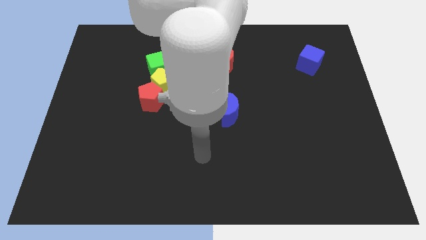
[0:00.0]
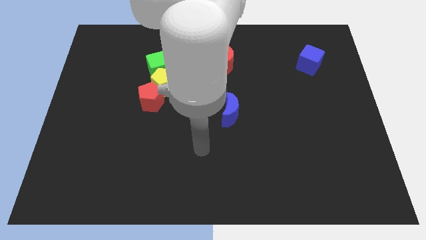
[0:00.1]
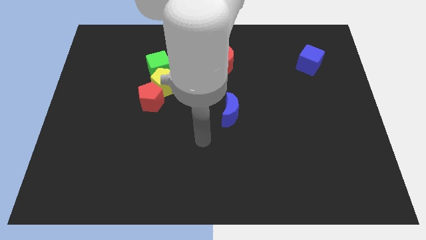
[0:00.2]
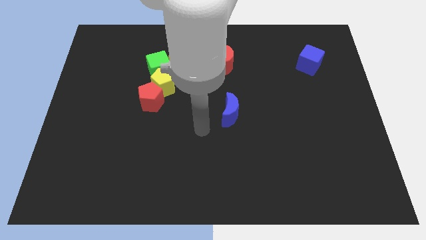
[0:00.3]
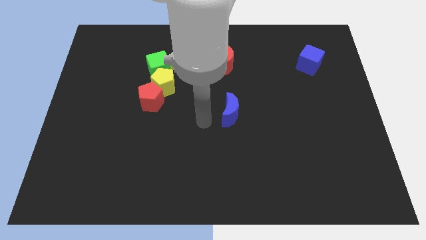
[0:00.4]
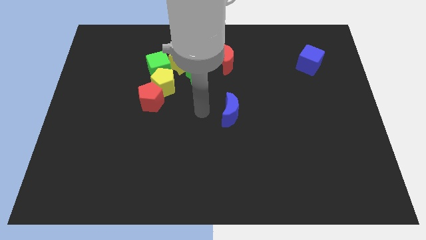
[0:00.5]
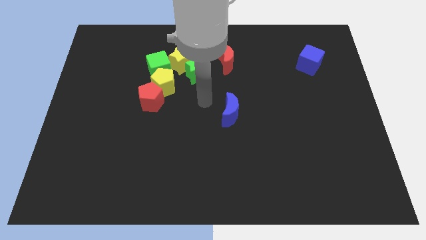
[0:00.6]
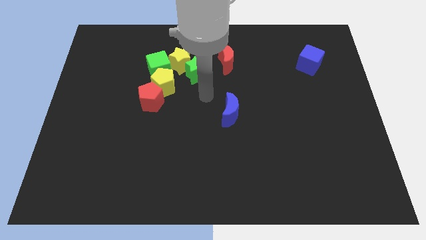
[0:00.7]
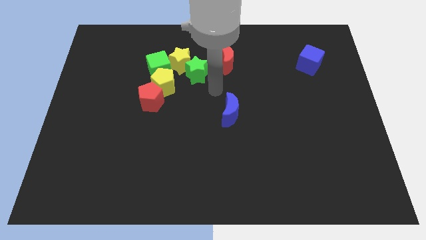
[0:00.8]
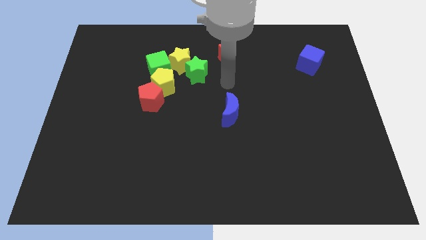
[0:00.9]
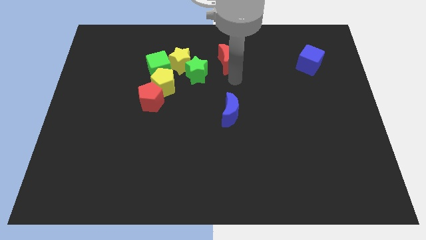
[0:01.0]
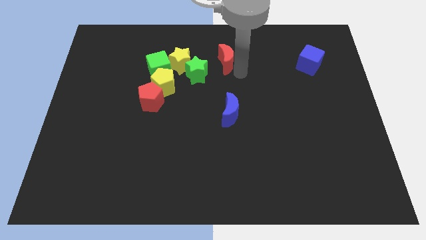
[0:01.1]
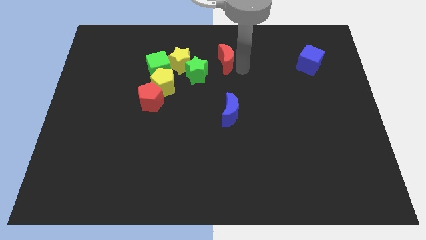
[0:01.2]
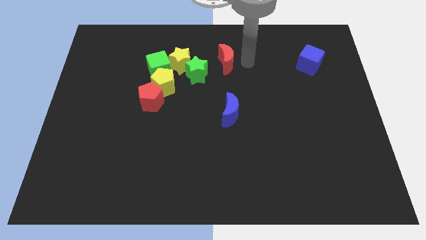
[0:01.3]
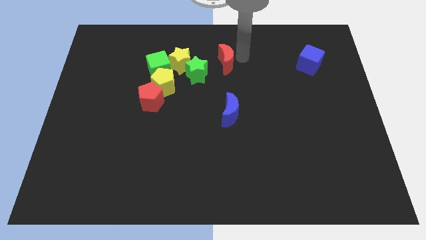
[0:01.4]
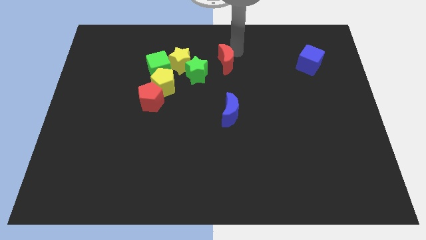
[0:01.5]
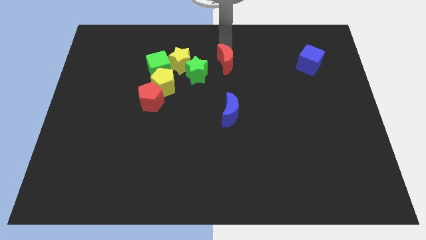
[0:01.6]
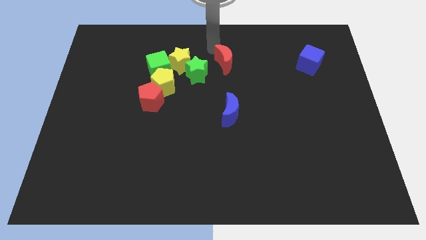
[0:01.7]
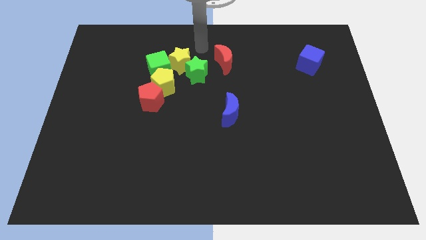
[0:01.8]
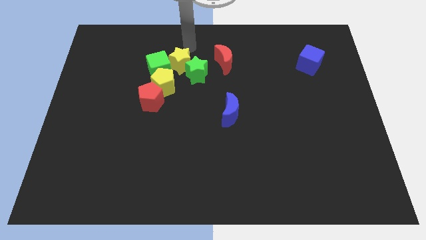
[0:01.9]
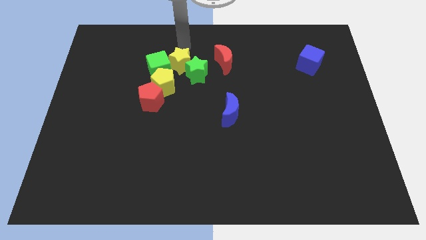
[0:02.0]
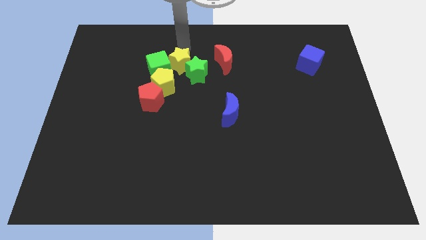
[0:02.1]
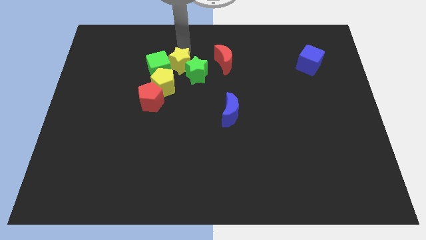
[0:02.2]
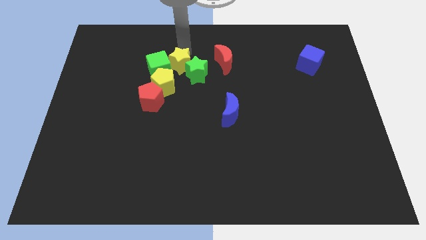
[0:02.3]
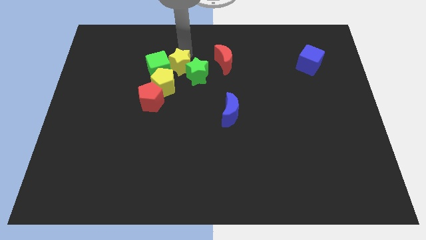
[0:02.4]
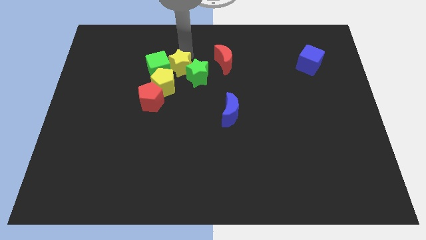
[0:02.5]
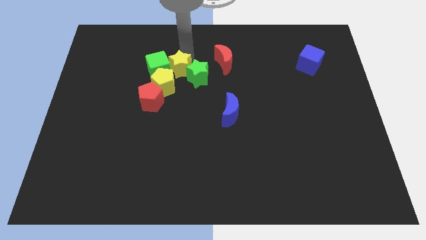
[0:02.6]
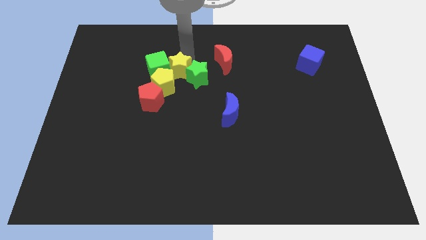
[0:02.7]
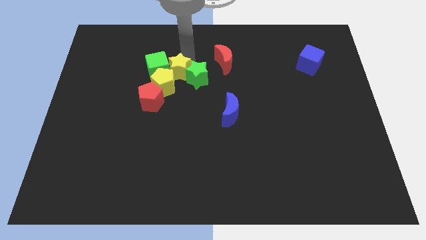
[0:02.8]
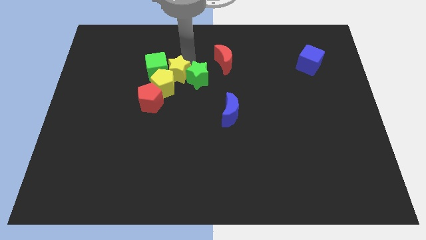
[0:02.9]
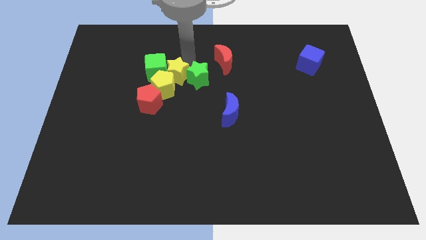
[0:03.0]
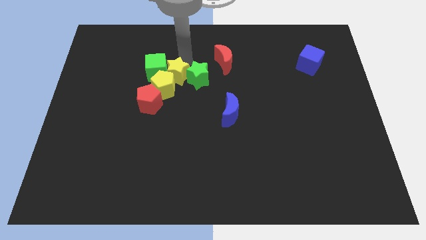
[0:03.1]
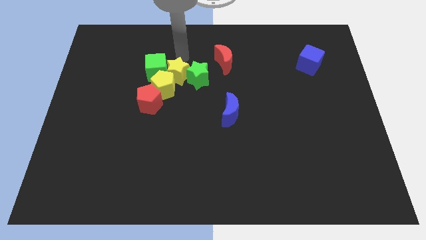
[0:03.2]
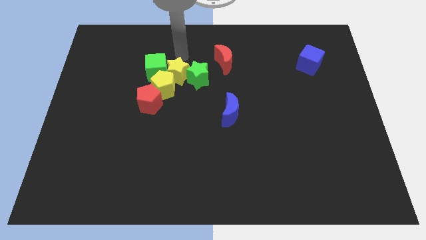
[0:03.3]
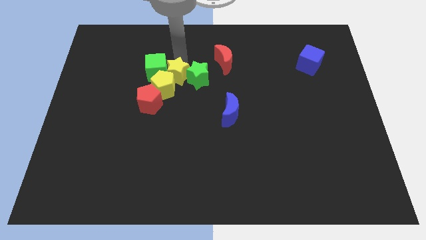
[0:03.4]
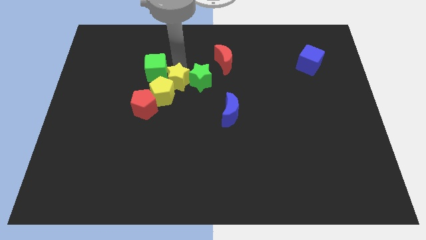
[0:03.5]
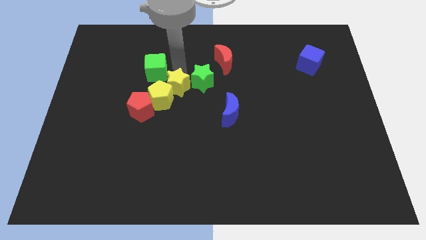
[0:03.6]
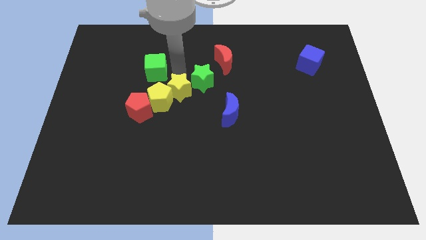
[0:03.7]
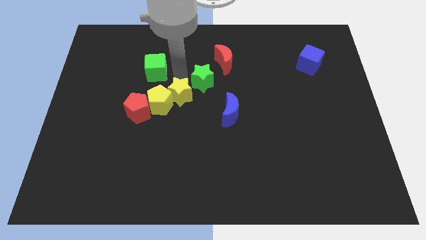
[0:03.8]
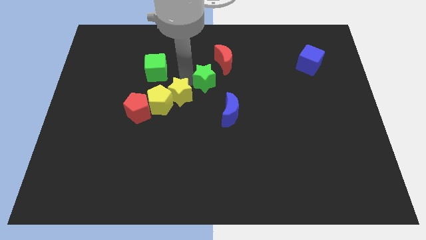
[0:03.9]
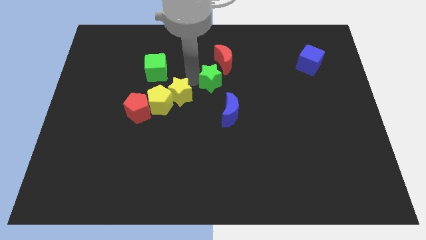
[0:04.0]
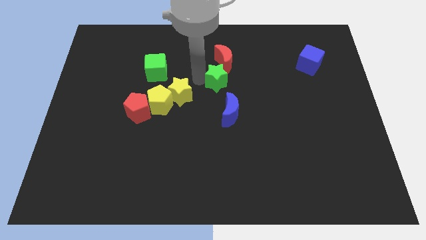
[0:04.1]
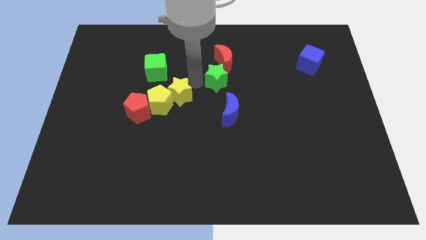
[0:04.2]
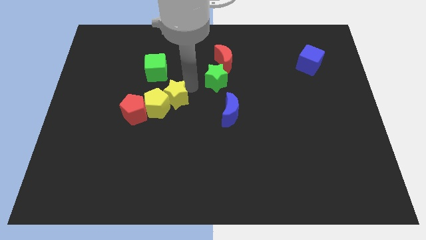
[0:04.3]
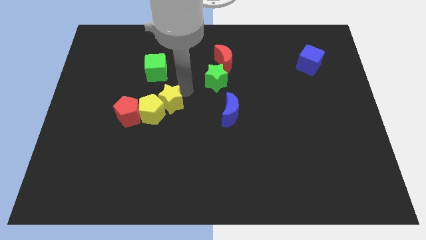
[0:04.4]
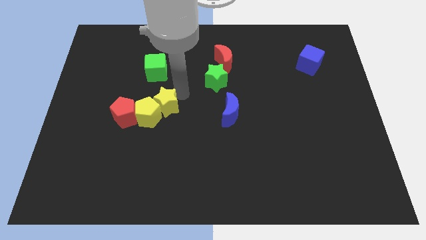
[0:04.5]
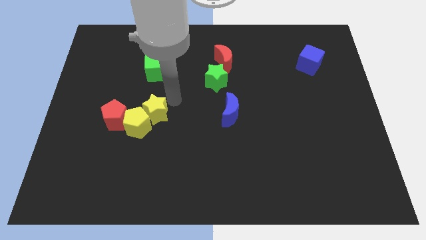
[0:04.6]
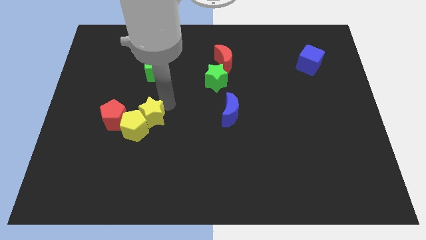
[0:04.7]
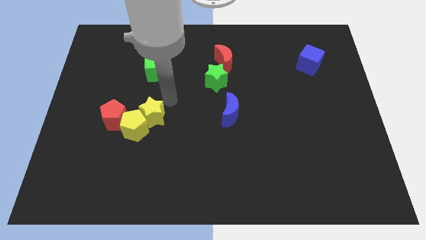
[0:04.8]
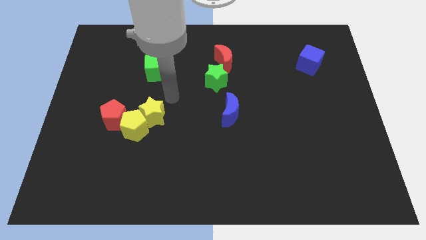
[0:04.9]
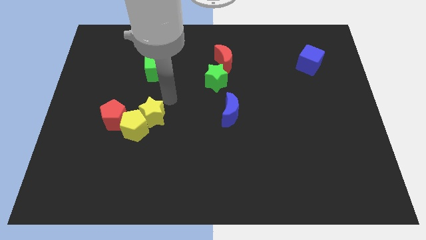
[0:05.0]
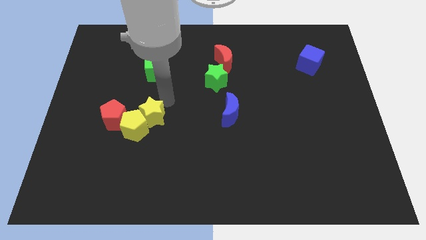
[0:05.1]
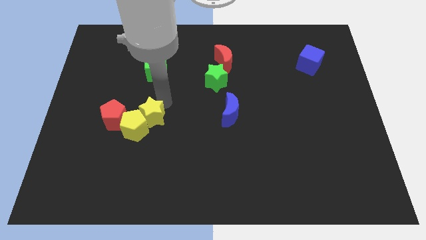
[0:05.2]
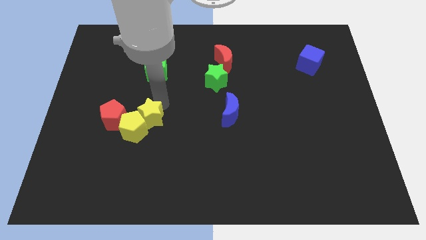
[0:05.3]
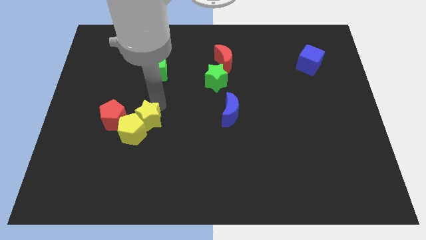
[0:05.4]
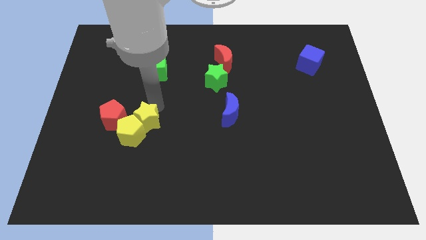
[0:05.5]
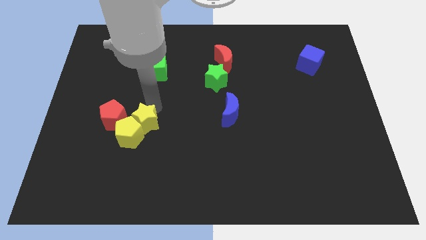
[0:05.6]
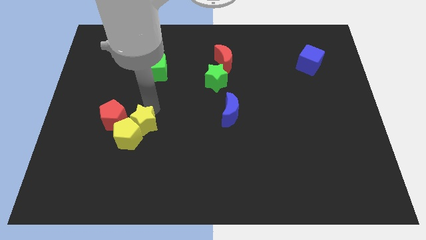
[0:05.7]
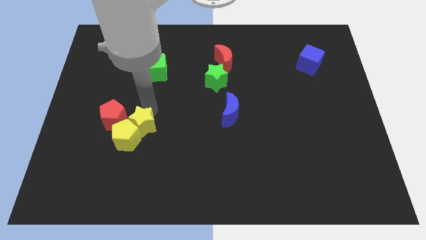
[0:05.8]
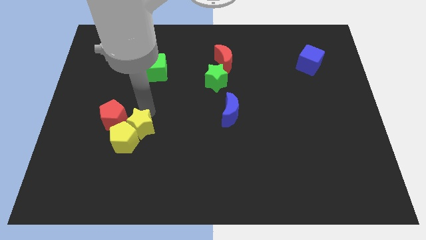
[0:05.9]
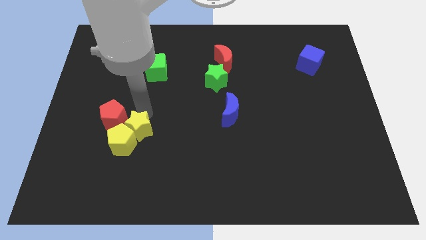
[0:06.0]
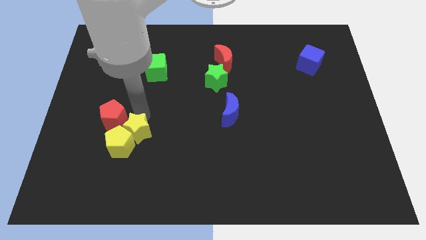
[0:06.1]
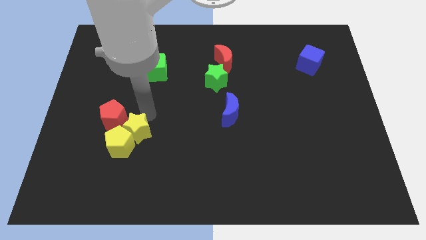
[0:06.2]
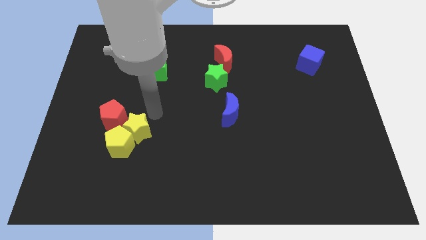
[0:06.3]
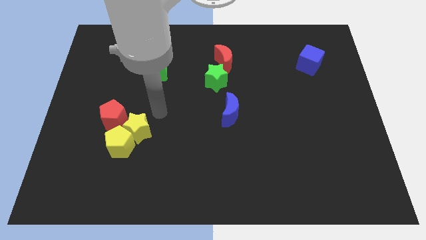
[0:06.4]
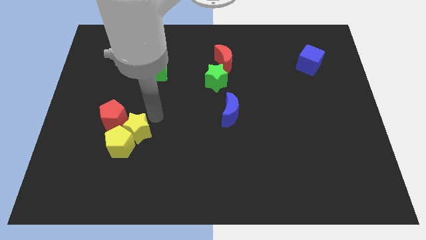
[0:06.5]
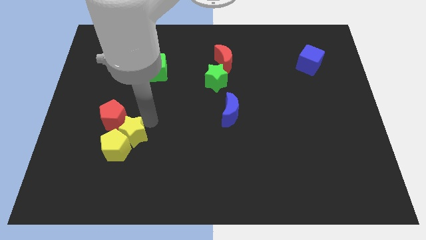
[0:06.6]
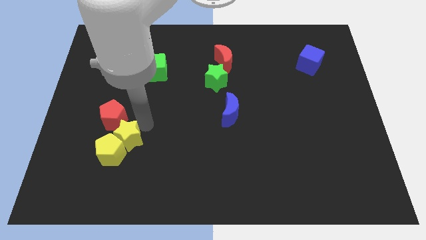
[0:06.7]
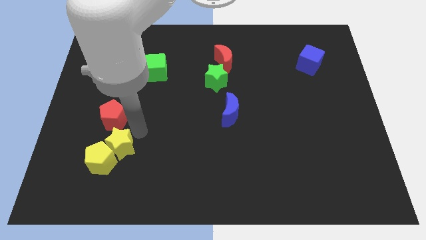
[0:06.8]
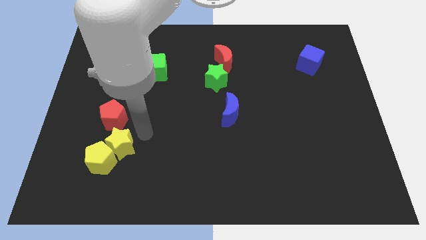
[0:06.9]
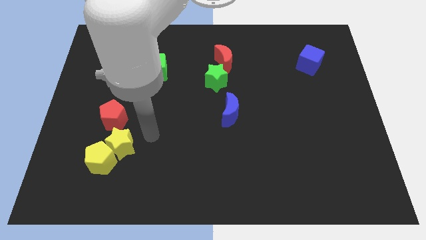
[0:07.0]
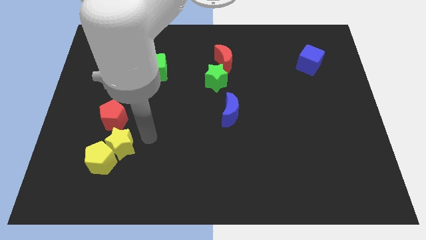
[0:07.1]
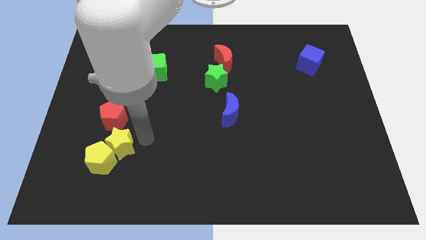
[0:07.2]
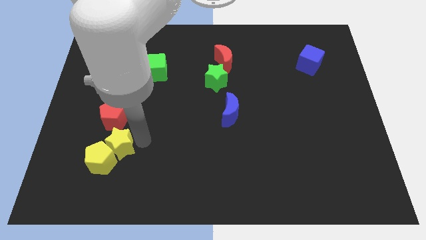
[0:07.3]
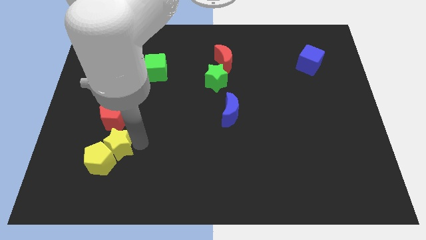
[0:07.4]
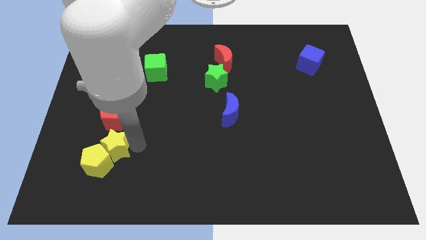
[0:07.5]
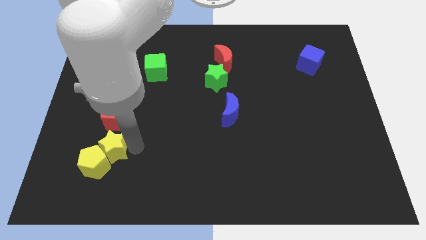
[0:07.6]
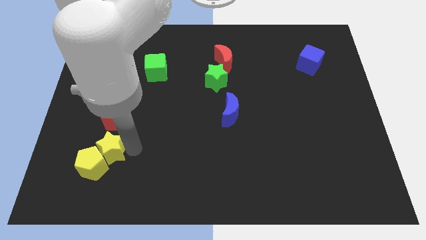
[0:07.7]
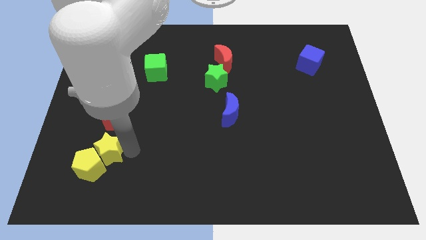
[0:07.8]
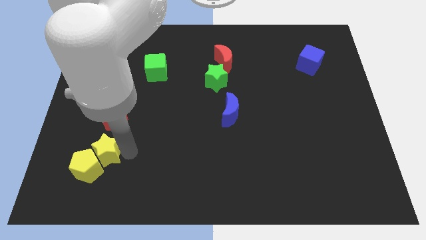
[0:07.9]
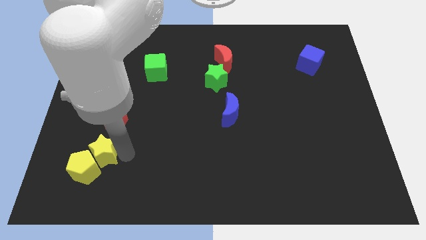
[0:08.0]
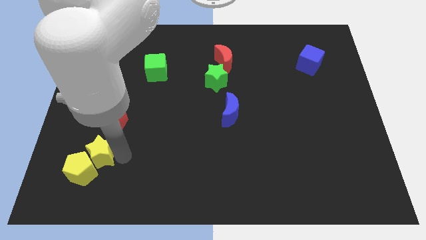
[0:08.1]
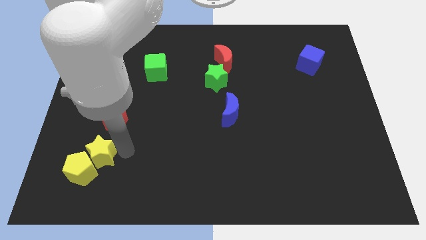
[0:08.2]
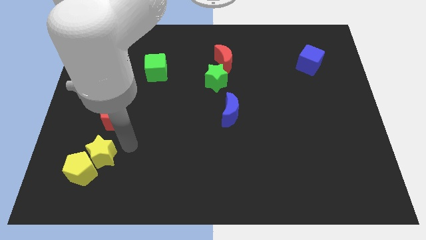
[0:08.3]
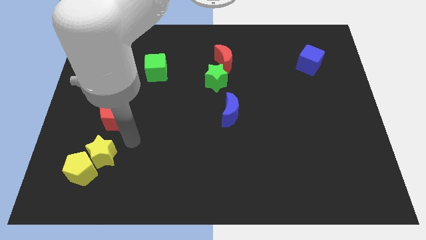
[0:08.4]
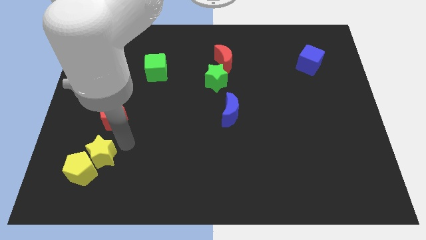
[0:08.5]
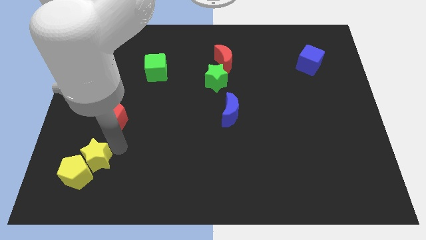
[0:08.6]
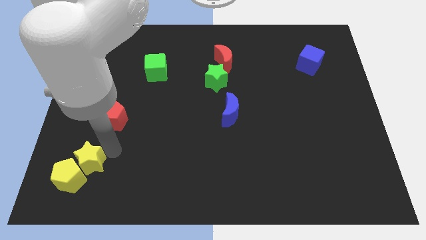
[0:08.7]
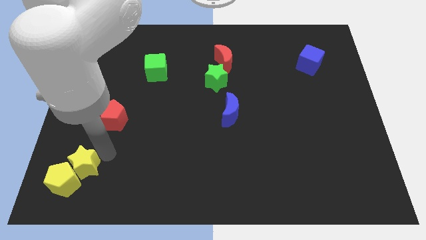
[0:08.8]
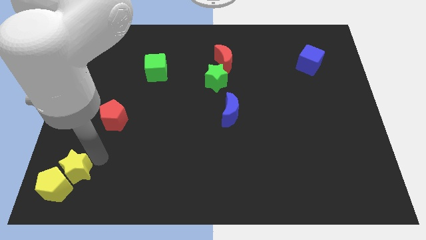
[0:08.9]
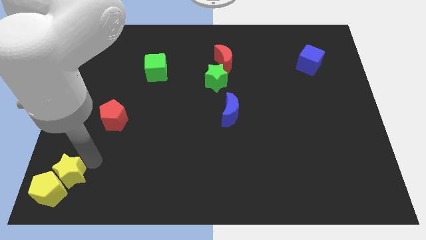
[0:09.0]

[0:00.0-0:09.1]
move the yellow star to the bottom left corner
